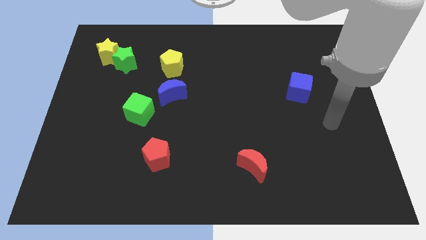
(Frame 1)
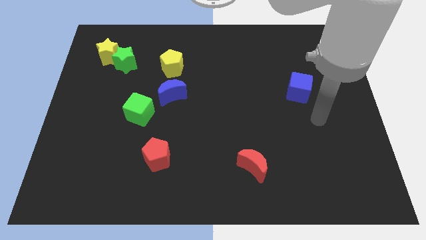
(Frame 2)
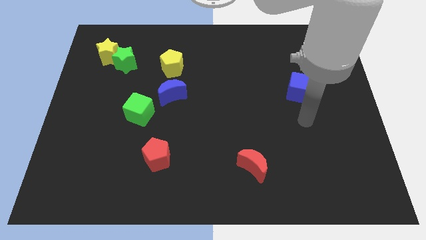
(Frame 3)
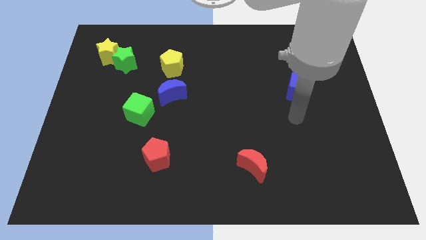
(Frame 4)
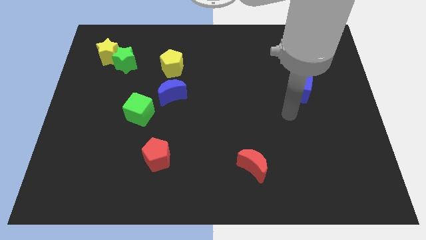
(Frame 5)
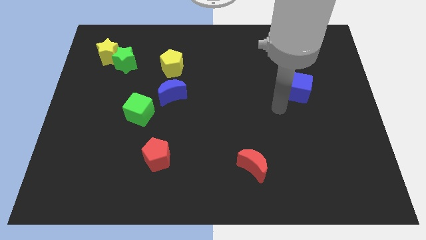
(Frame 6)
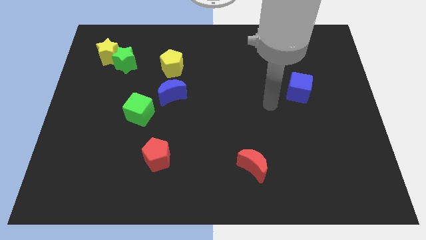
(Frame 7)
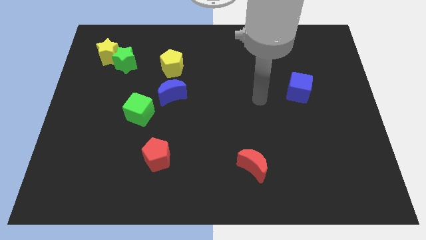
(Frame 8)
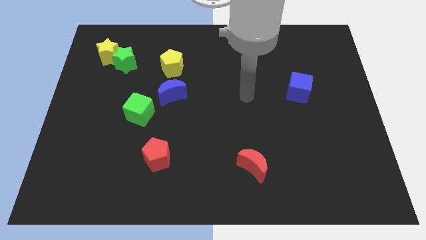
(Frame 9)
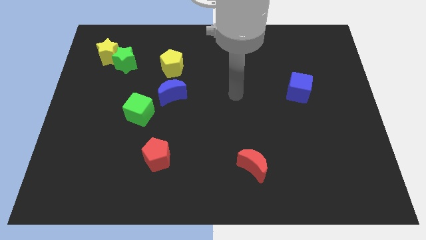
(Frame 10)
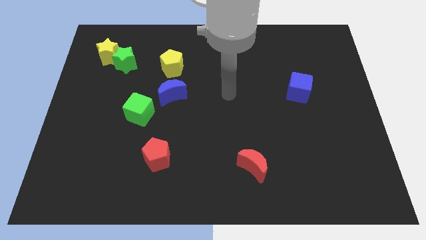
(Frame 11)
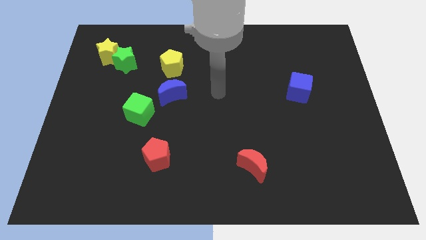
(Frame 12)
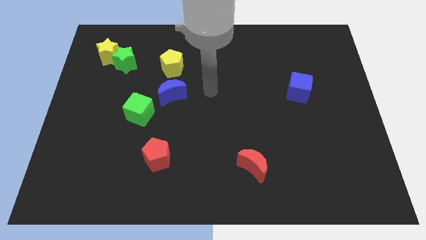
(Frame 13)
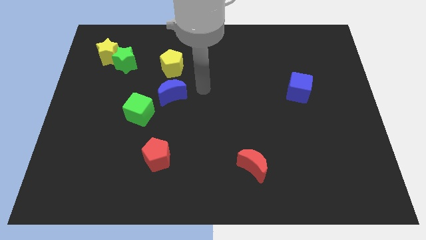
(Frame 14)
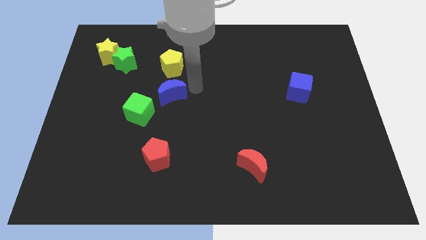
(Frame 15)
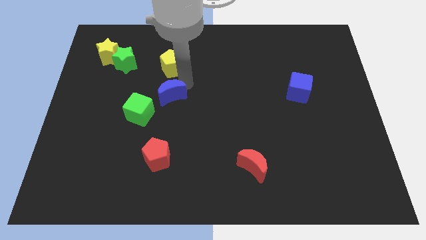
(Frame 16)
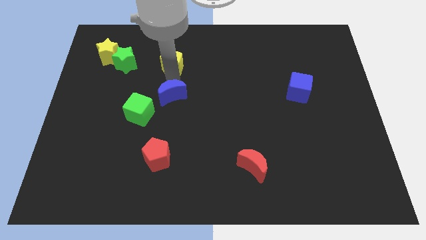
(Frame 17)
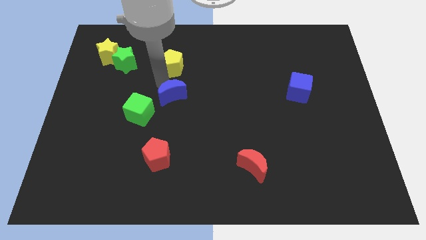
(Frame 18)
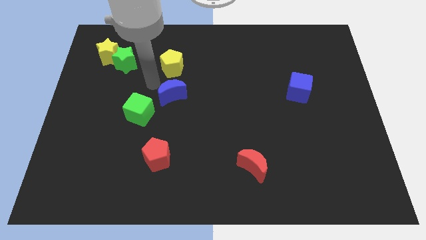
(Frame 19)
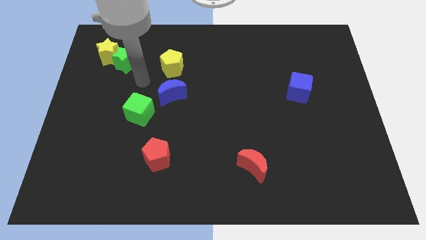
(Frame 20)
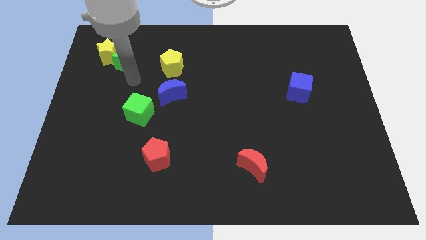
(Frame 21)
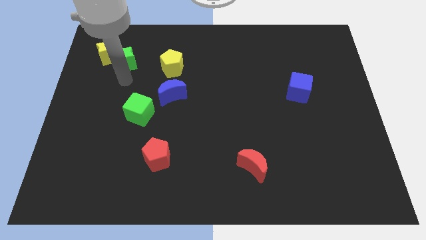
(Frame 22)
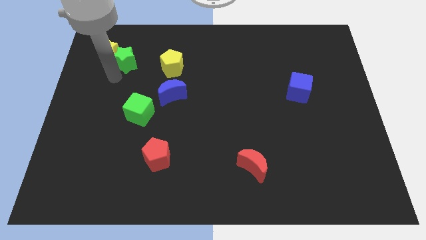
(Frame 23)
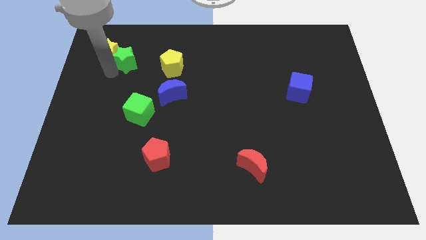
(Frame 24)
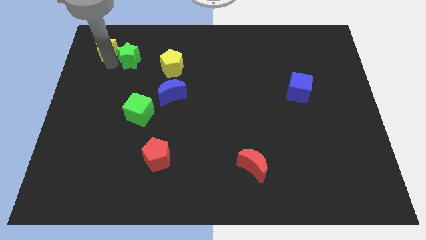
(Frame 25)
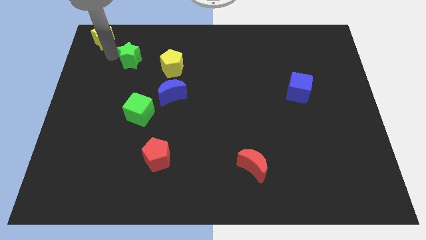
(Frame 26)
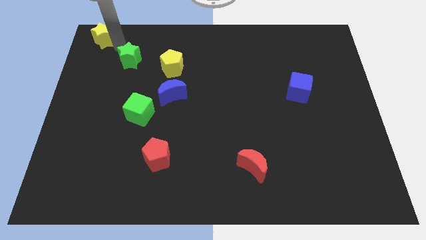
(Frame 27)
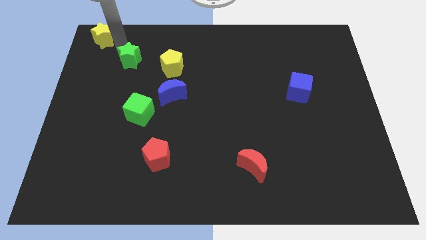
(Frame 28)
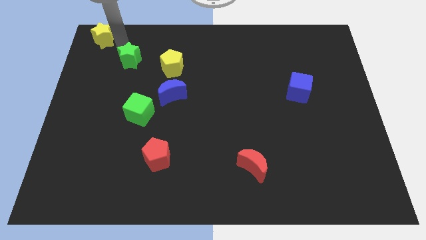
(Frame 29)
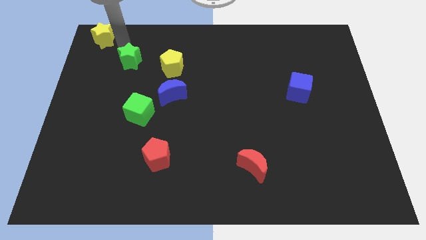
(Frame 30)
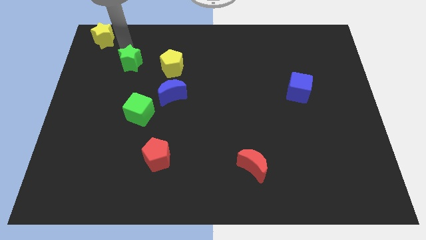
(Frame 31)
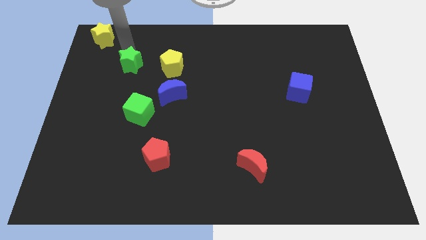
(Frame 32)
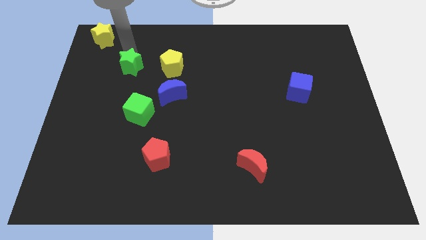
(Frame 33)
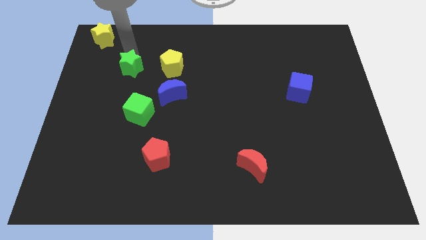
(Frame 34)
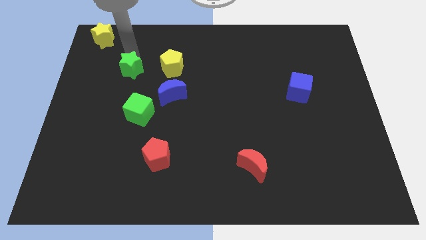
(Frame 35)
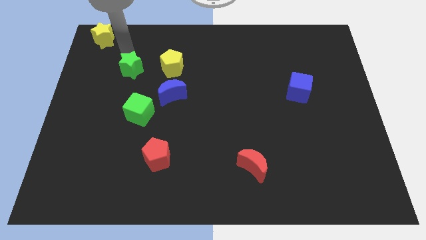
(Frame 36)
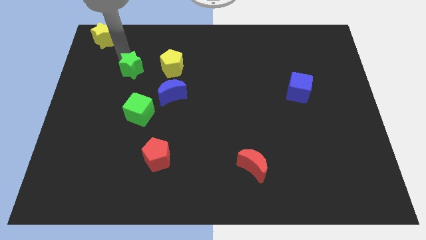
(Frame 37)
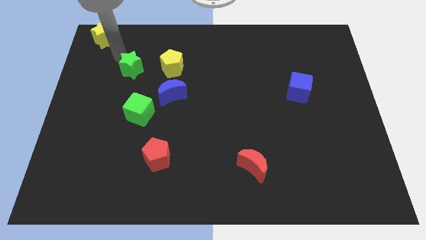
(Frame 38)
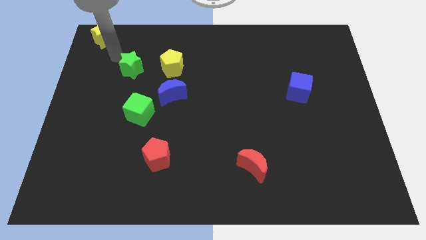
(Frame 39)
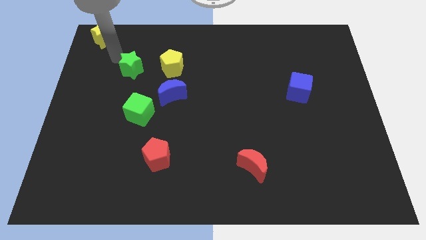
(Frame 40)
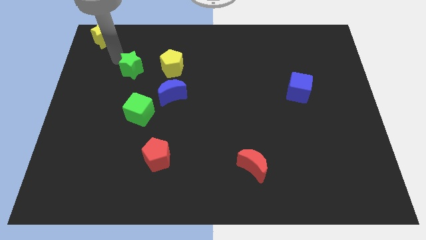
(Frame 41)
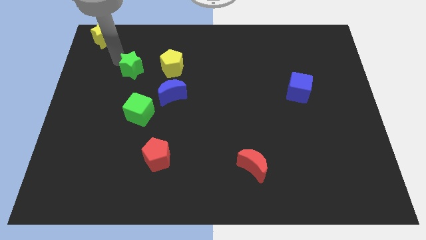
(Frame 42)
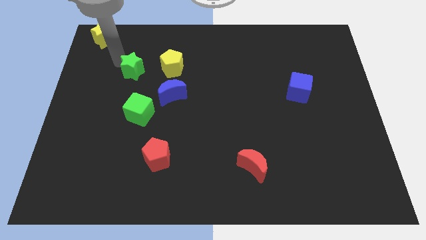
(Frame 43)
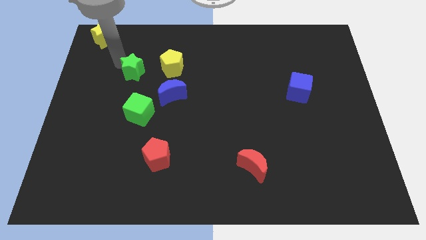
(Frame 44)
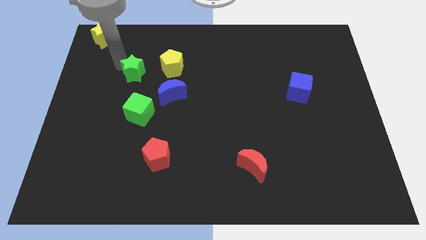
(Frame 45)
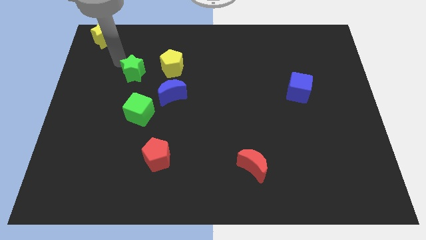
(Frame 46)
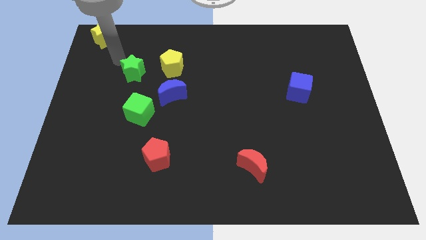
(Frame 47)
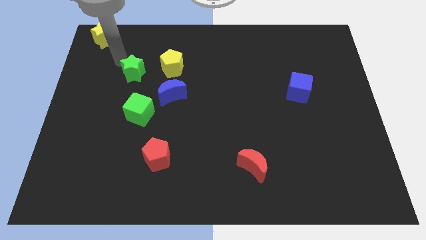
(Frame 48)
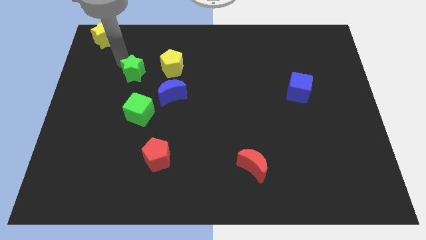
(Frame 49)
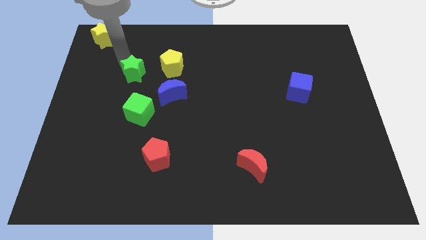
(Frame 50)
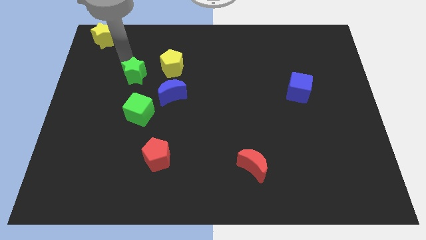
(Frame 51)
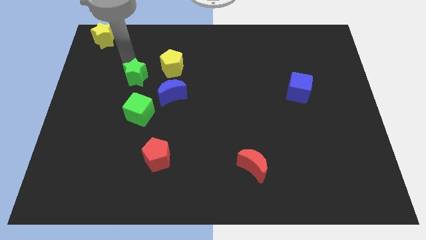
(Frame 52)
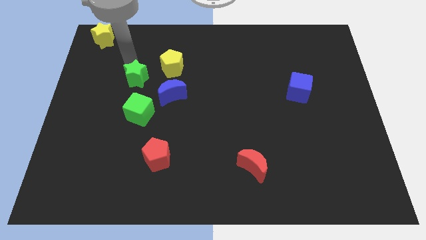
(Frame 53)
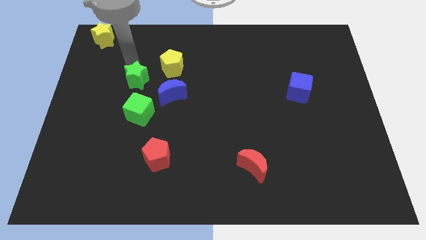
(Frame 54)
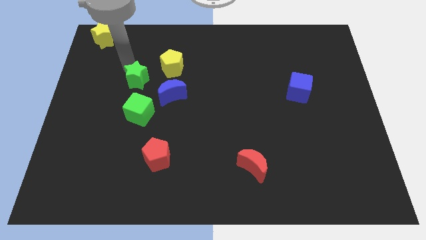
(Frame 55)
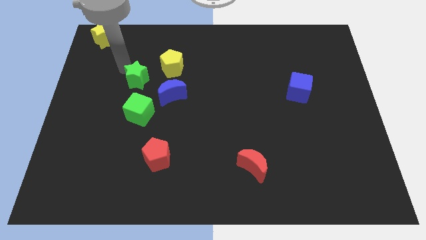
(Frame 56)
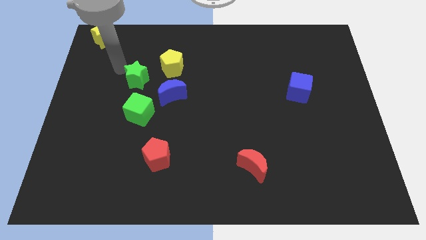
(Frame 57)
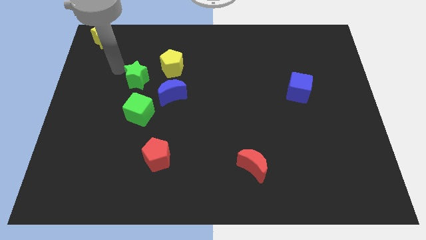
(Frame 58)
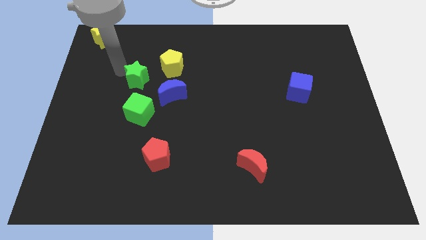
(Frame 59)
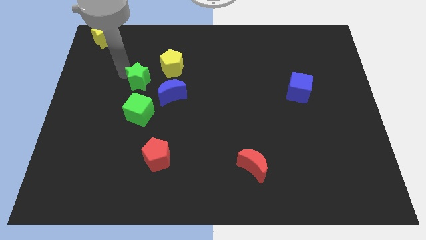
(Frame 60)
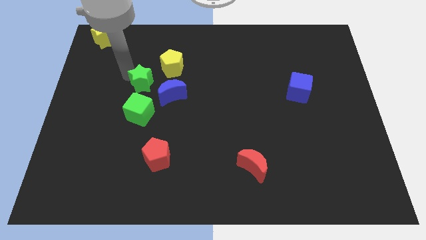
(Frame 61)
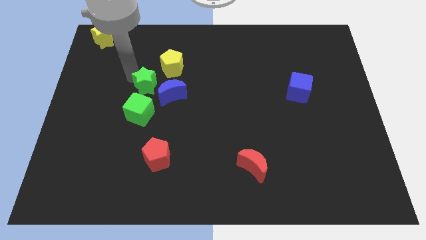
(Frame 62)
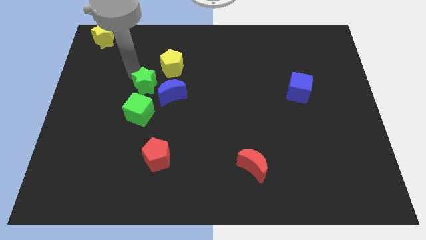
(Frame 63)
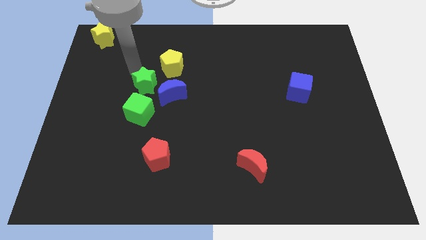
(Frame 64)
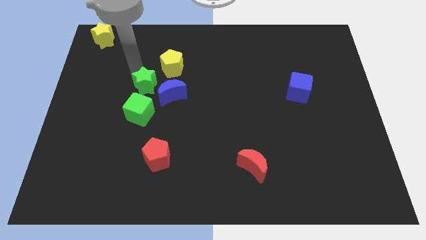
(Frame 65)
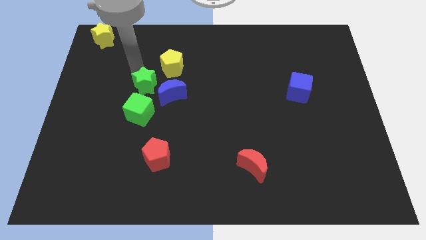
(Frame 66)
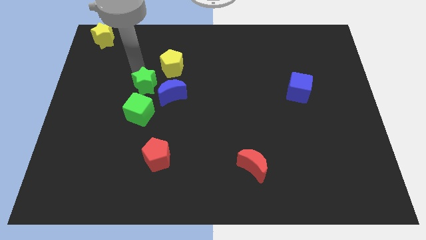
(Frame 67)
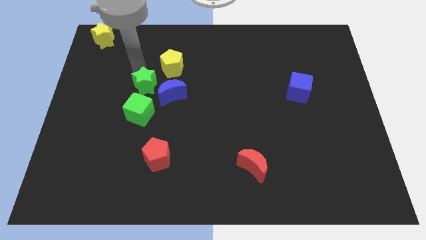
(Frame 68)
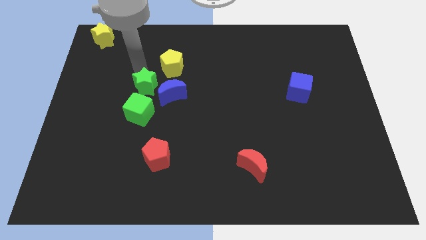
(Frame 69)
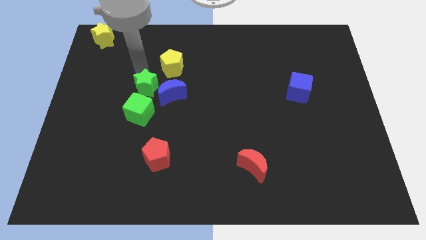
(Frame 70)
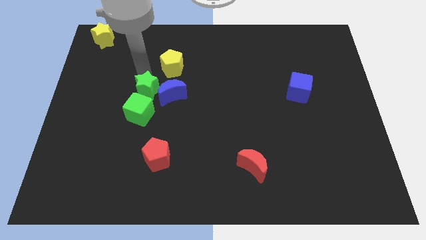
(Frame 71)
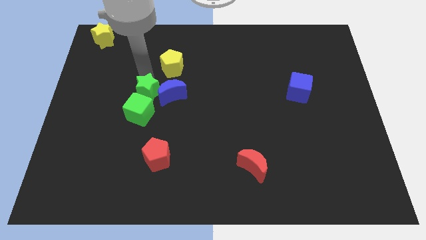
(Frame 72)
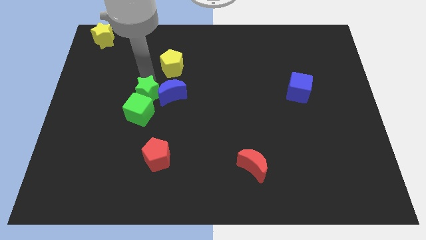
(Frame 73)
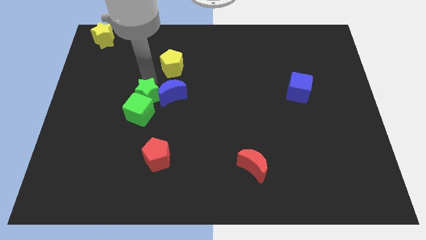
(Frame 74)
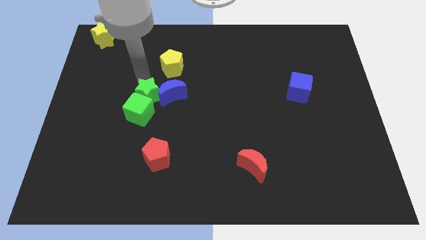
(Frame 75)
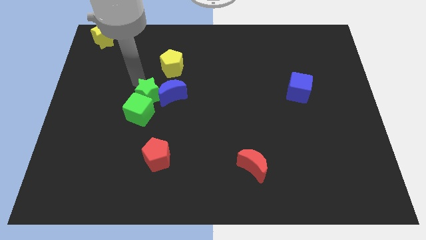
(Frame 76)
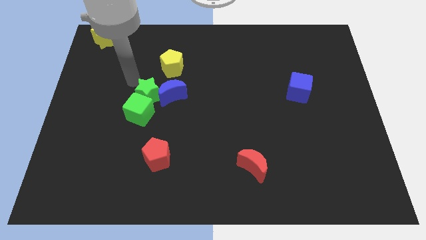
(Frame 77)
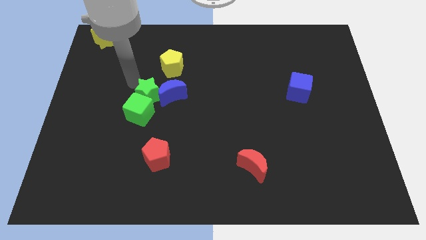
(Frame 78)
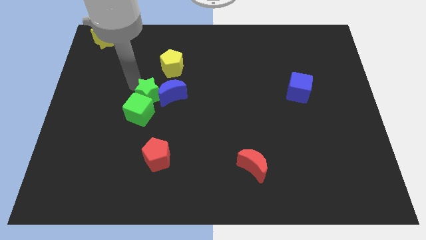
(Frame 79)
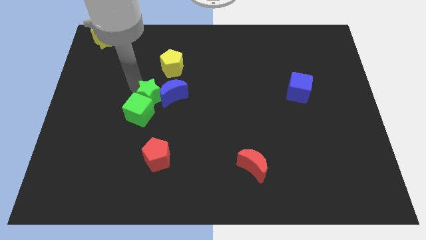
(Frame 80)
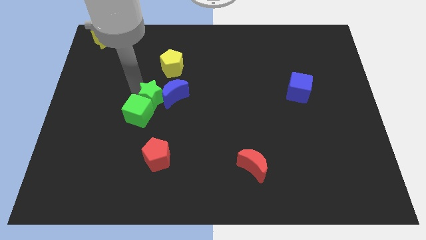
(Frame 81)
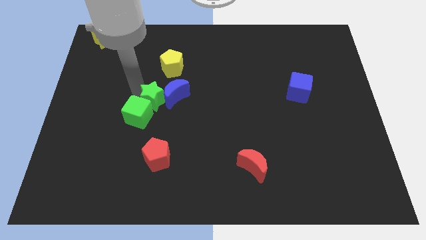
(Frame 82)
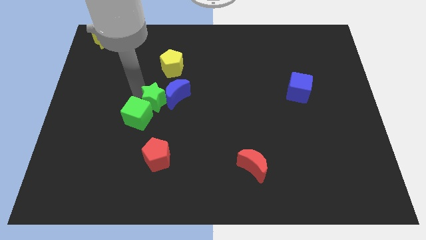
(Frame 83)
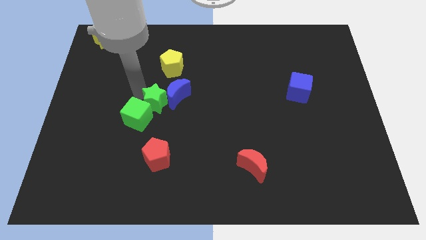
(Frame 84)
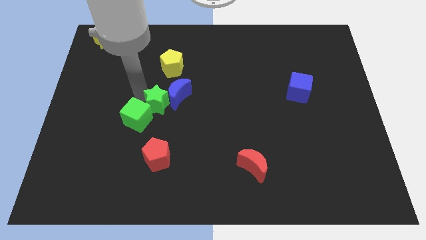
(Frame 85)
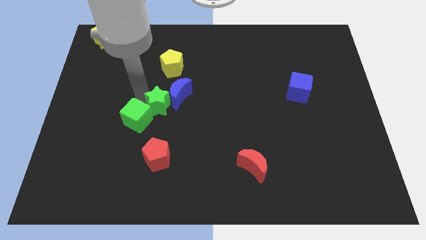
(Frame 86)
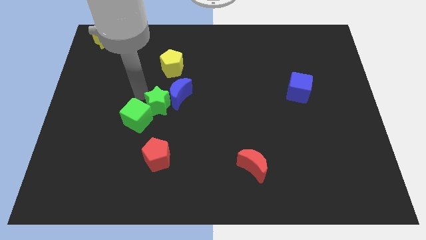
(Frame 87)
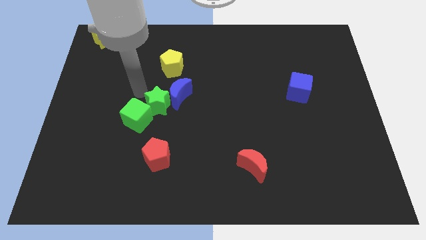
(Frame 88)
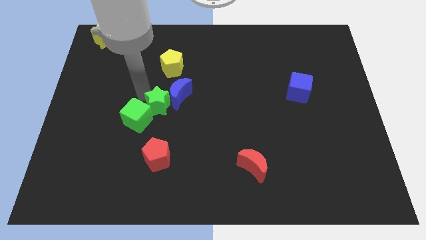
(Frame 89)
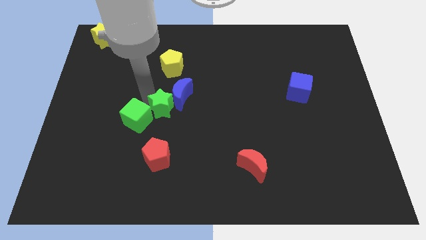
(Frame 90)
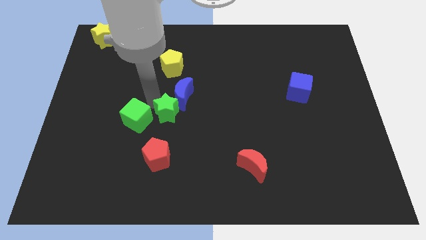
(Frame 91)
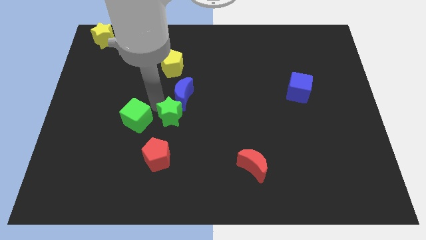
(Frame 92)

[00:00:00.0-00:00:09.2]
push the green star downwards and to the right diagonally
